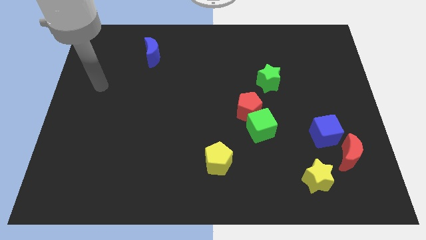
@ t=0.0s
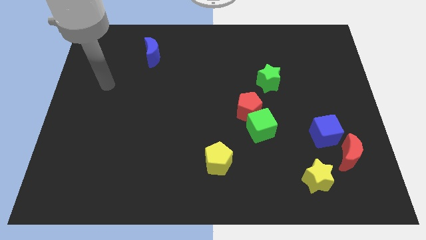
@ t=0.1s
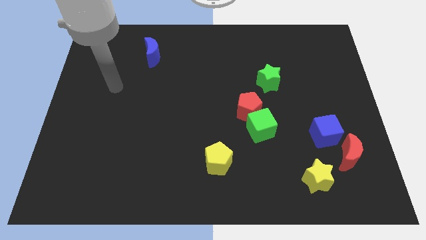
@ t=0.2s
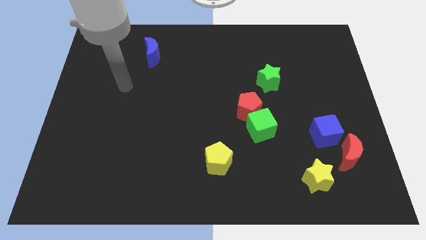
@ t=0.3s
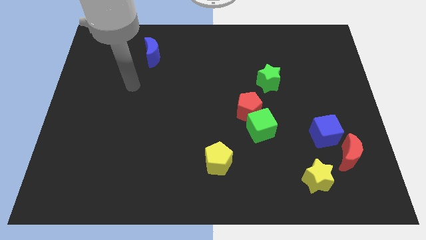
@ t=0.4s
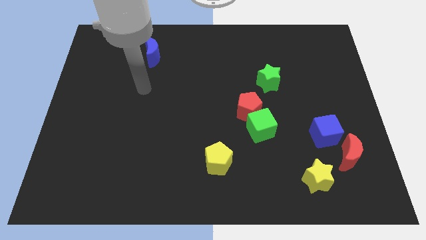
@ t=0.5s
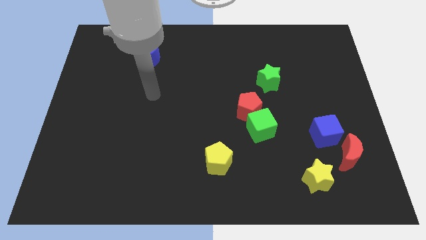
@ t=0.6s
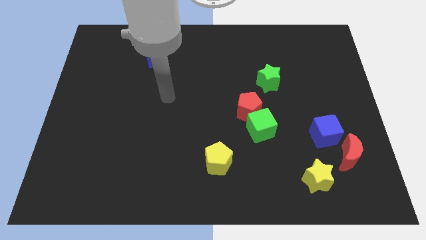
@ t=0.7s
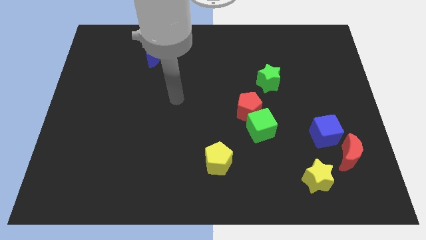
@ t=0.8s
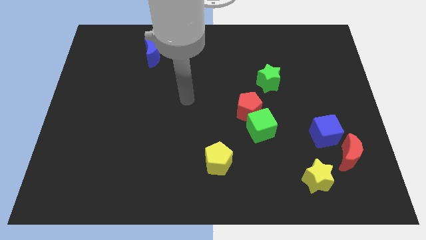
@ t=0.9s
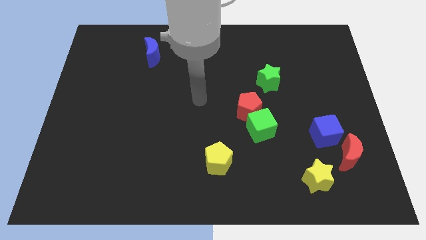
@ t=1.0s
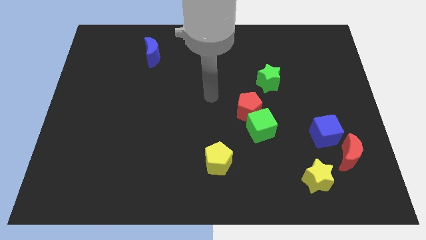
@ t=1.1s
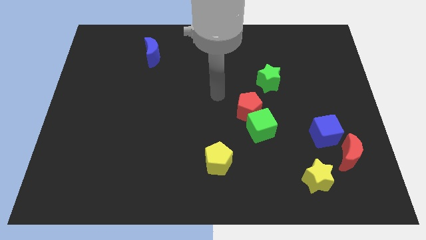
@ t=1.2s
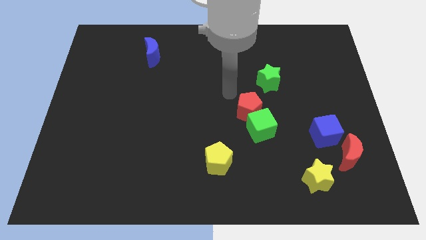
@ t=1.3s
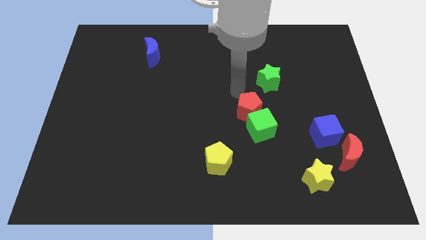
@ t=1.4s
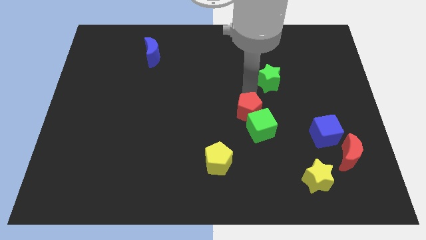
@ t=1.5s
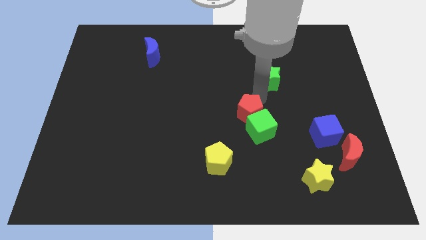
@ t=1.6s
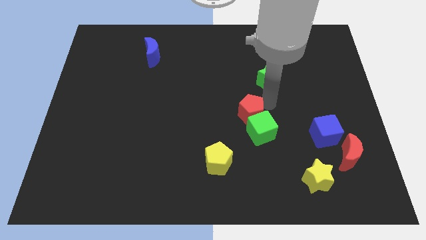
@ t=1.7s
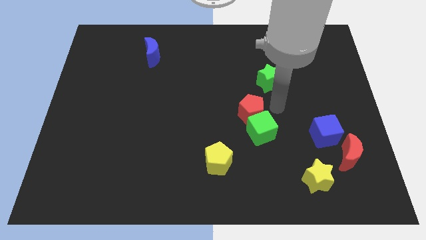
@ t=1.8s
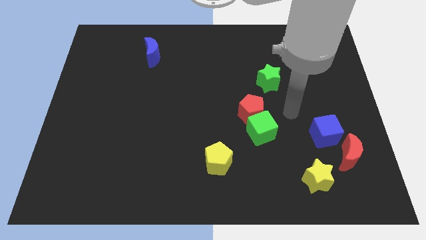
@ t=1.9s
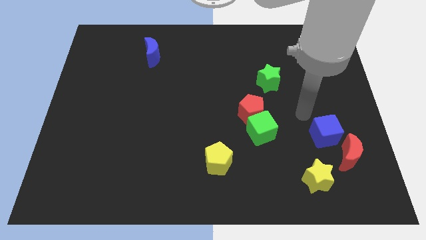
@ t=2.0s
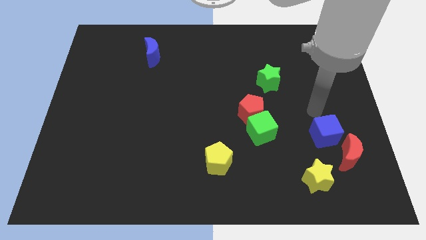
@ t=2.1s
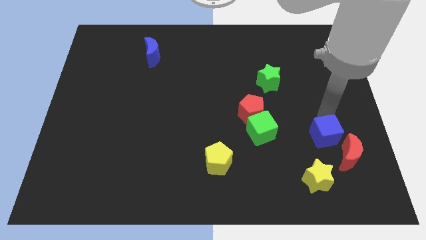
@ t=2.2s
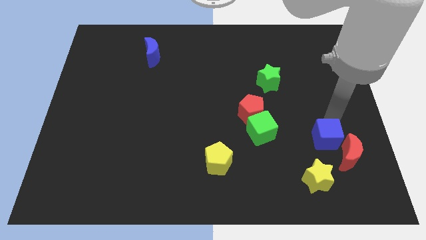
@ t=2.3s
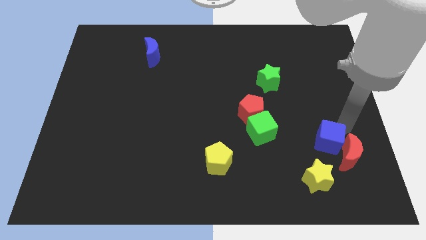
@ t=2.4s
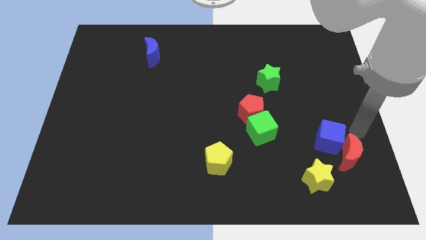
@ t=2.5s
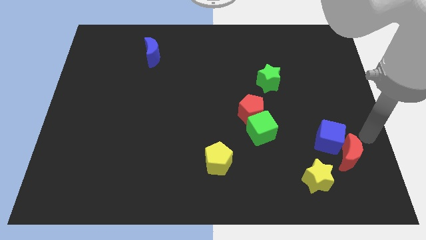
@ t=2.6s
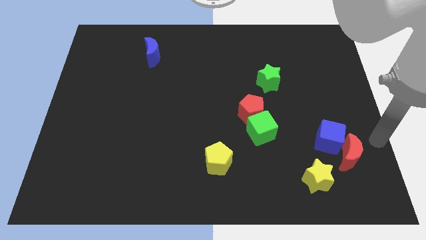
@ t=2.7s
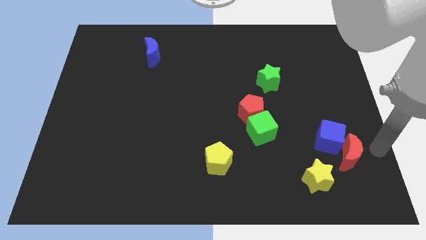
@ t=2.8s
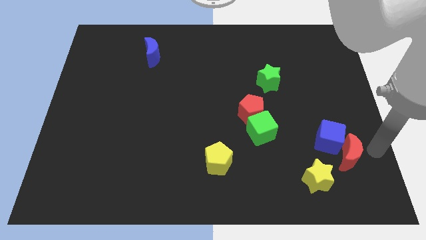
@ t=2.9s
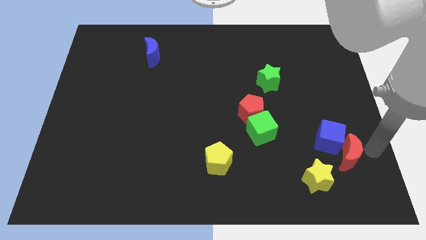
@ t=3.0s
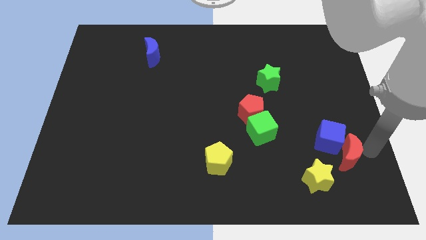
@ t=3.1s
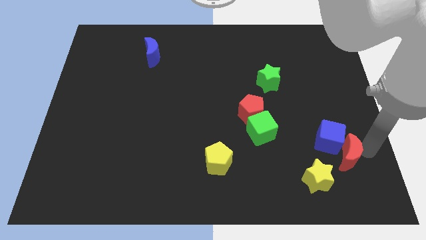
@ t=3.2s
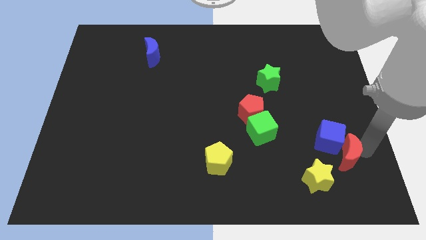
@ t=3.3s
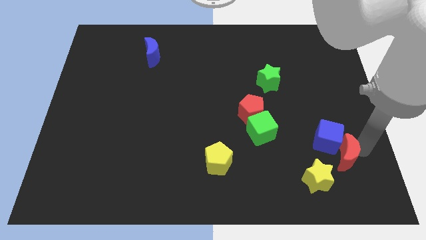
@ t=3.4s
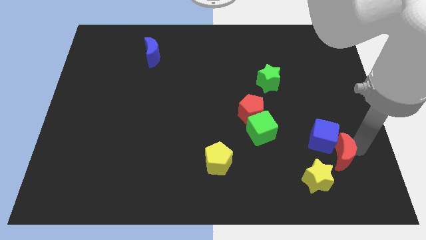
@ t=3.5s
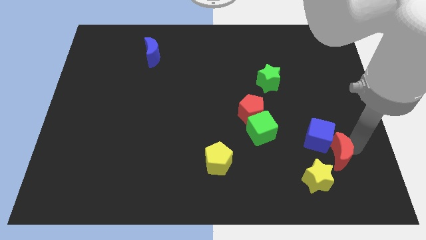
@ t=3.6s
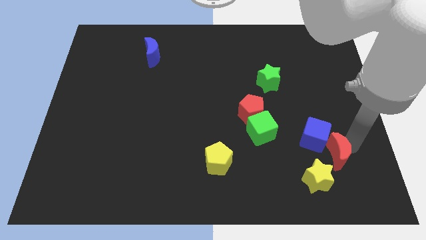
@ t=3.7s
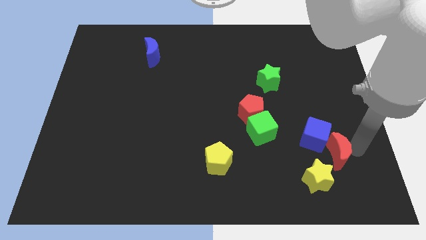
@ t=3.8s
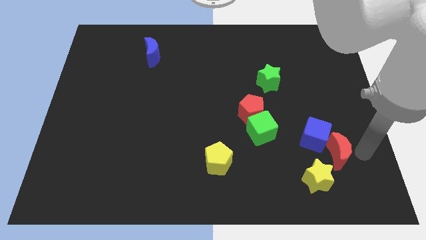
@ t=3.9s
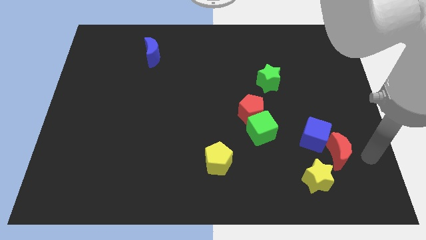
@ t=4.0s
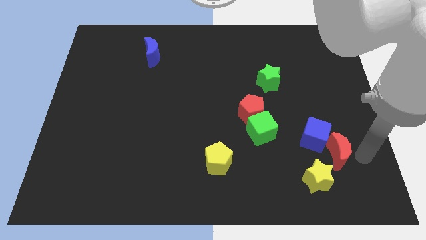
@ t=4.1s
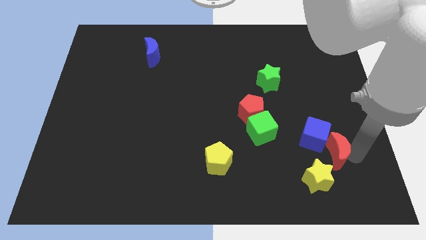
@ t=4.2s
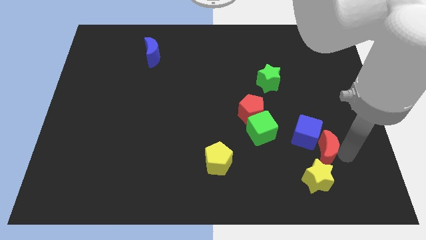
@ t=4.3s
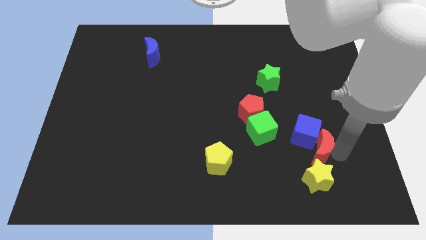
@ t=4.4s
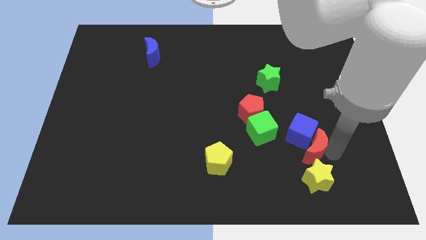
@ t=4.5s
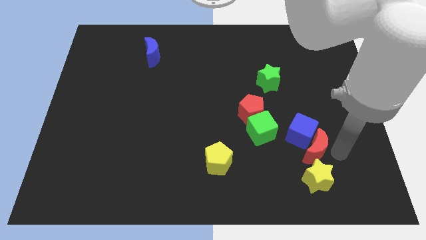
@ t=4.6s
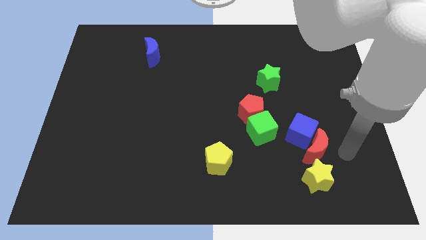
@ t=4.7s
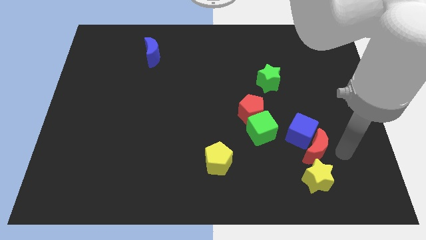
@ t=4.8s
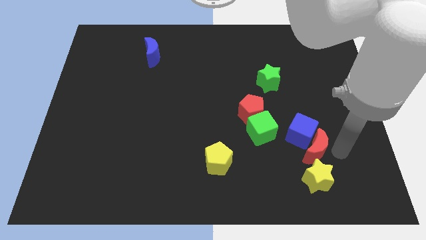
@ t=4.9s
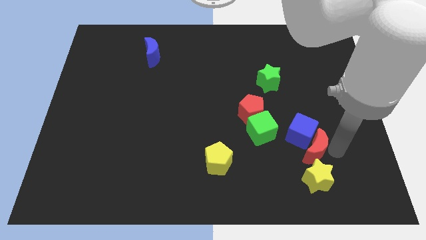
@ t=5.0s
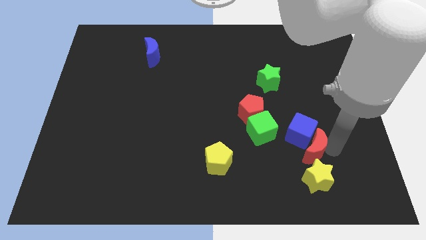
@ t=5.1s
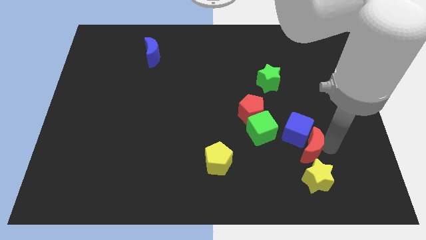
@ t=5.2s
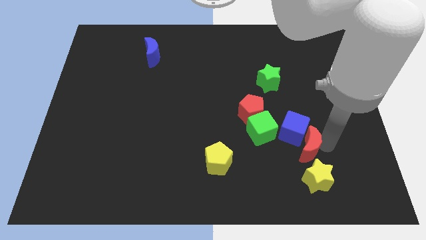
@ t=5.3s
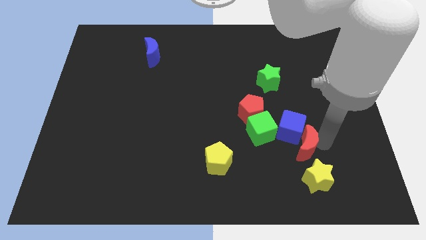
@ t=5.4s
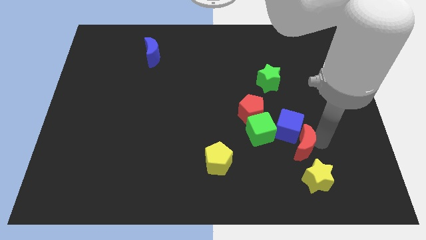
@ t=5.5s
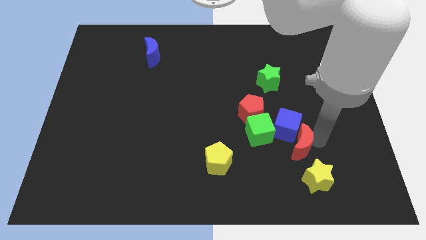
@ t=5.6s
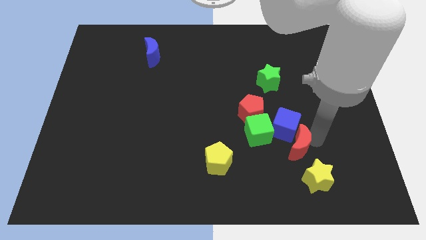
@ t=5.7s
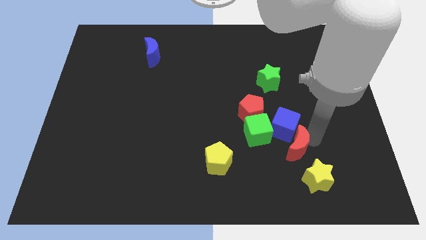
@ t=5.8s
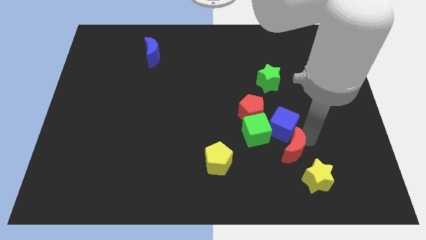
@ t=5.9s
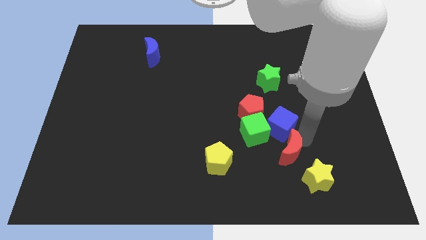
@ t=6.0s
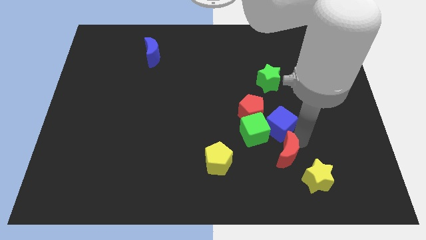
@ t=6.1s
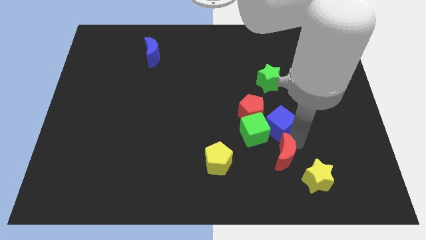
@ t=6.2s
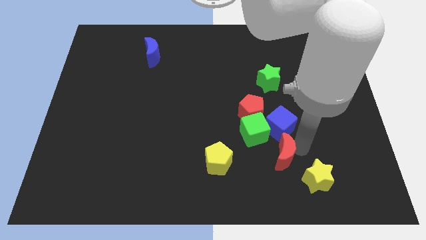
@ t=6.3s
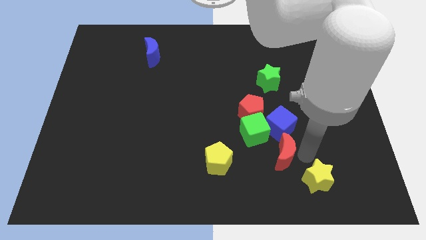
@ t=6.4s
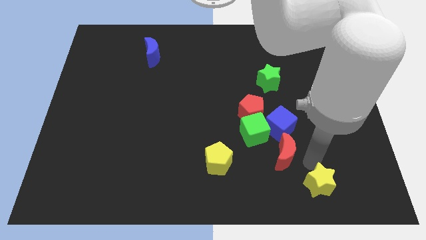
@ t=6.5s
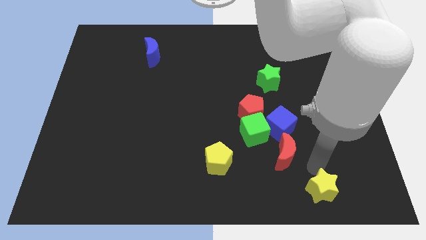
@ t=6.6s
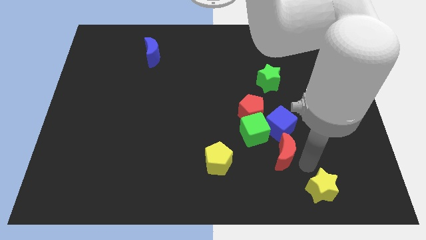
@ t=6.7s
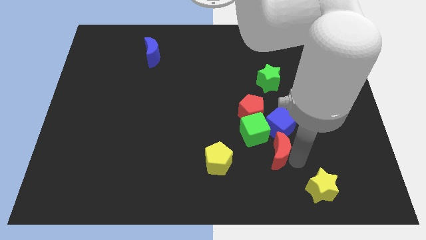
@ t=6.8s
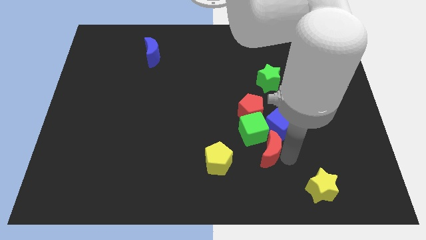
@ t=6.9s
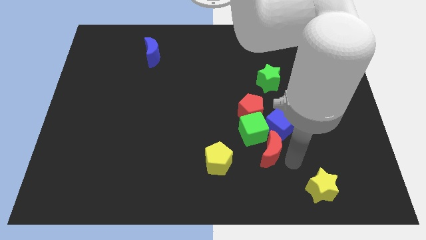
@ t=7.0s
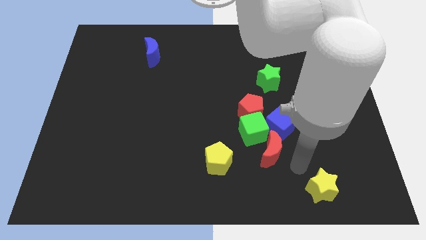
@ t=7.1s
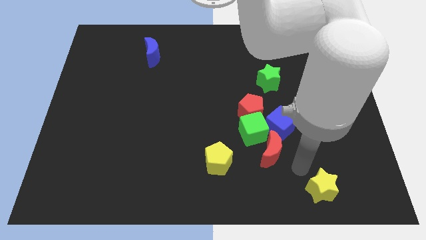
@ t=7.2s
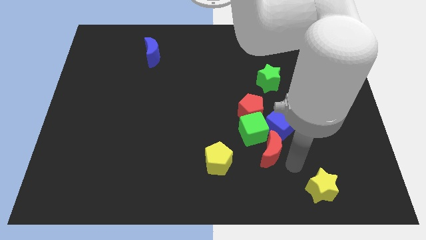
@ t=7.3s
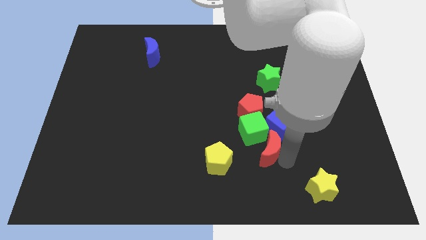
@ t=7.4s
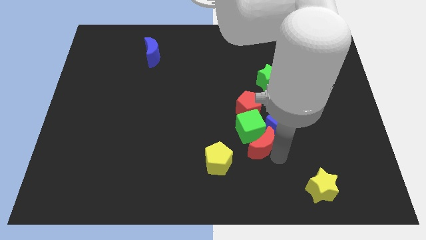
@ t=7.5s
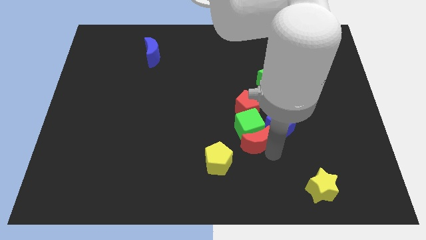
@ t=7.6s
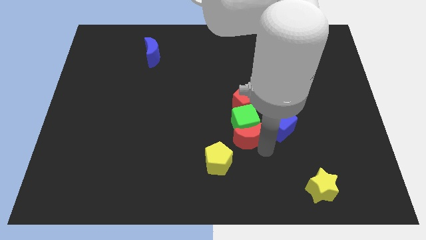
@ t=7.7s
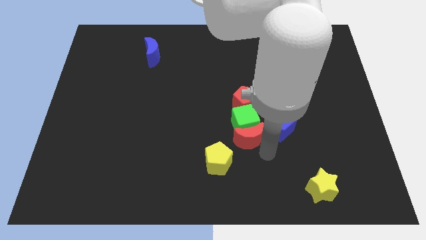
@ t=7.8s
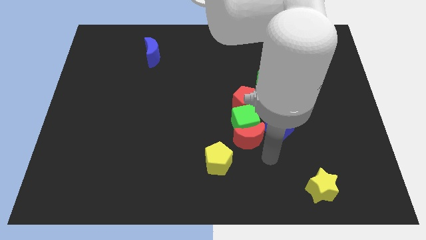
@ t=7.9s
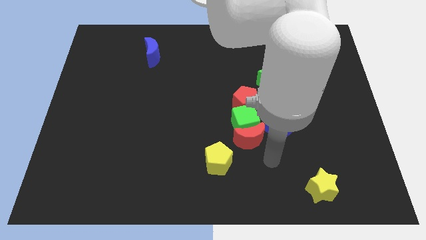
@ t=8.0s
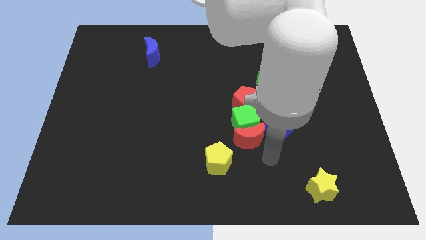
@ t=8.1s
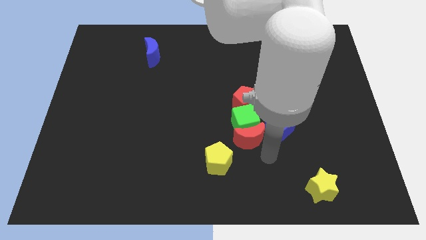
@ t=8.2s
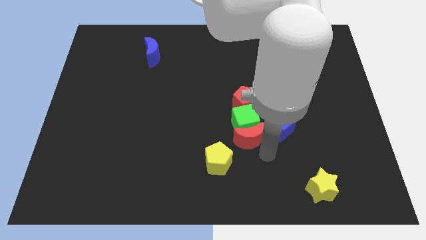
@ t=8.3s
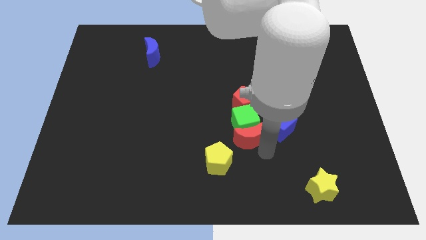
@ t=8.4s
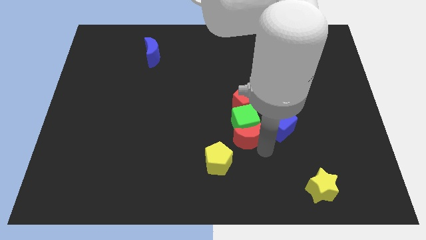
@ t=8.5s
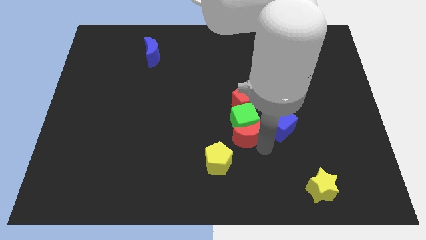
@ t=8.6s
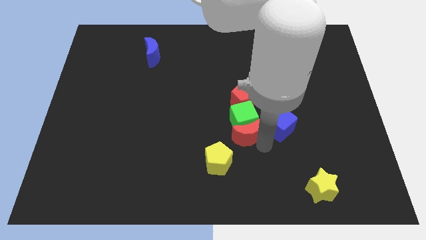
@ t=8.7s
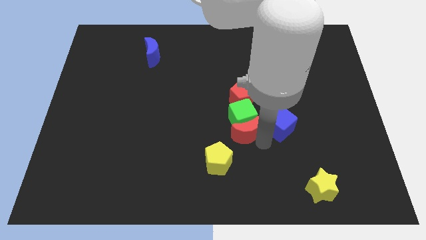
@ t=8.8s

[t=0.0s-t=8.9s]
slide the red moon to the middle of the board
